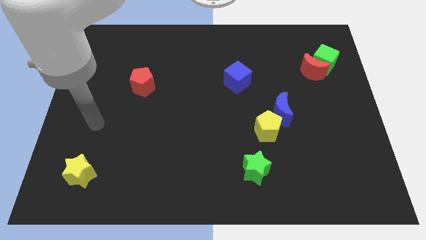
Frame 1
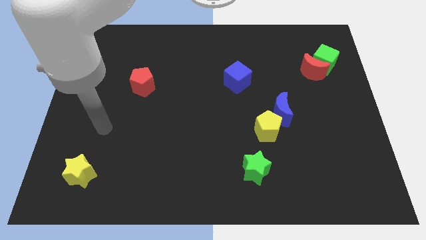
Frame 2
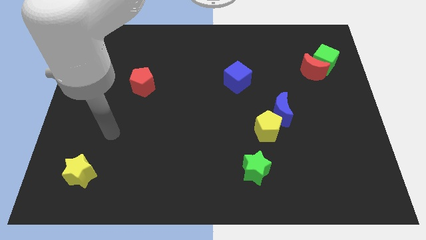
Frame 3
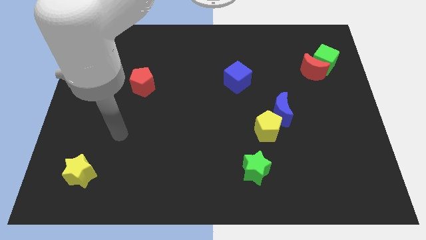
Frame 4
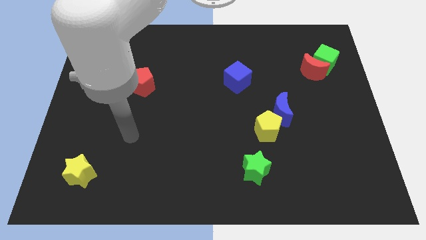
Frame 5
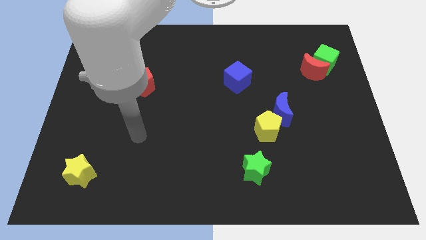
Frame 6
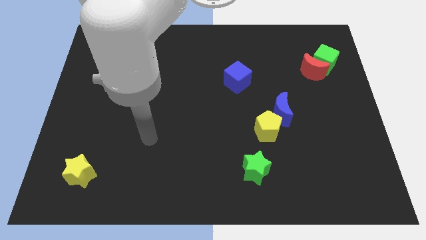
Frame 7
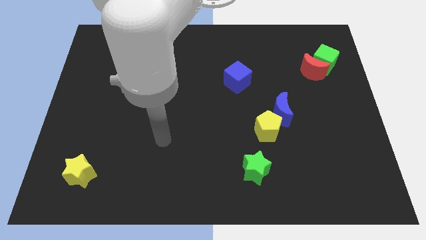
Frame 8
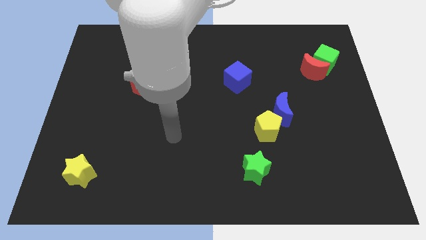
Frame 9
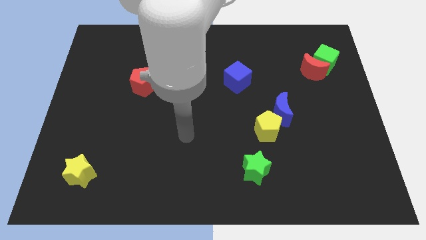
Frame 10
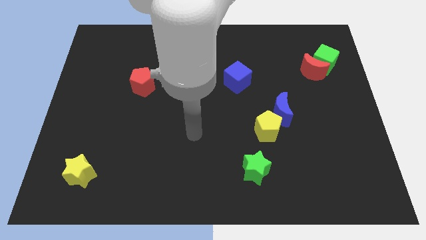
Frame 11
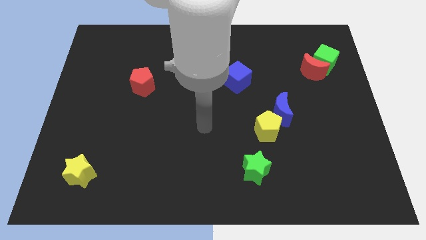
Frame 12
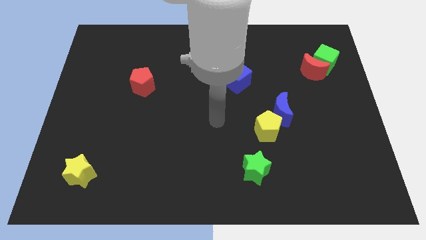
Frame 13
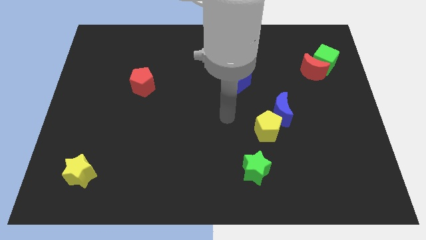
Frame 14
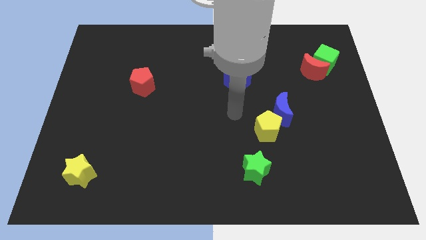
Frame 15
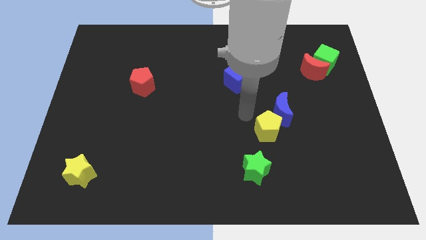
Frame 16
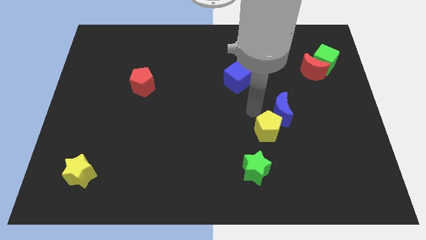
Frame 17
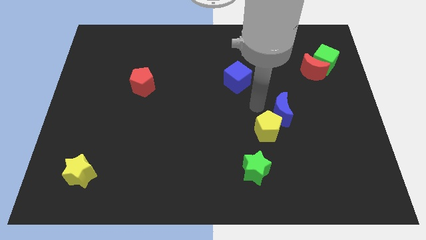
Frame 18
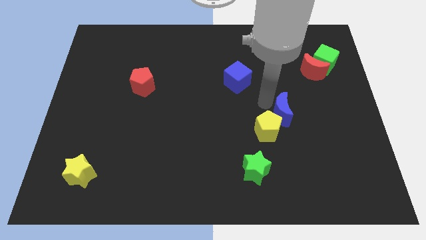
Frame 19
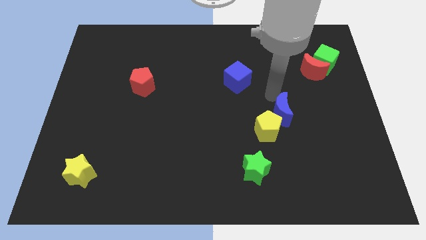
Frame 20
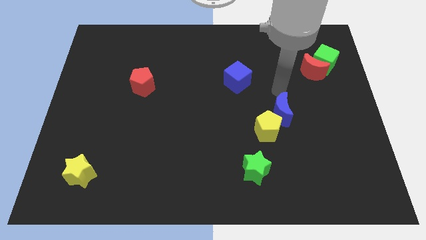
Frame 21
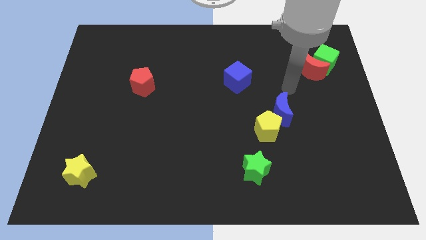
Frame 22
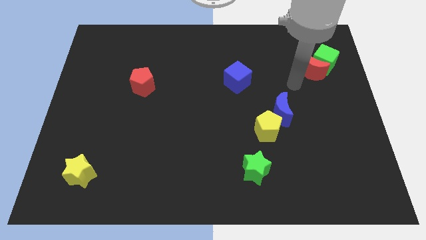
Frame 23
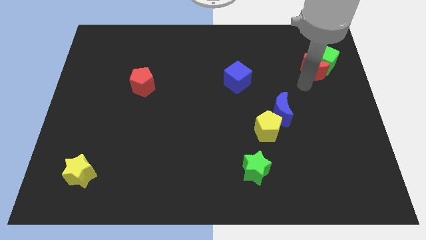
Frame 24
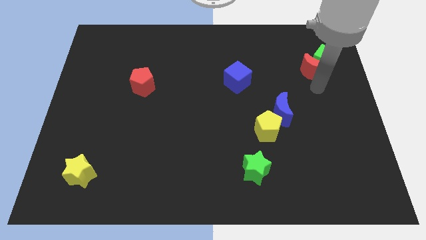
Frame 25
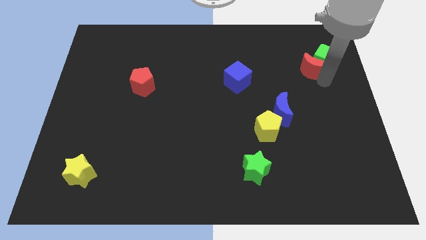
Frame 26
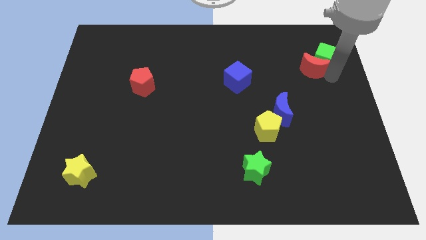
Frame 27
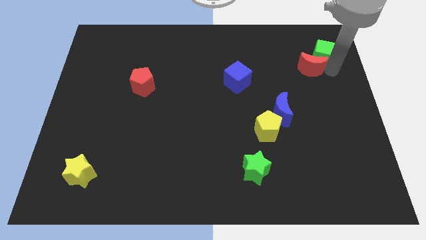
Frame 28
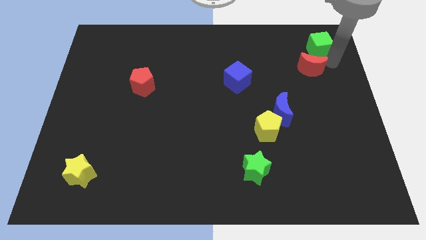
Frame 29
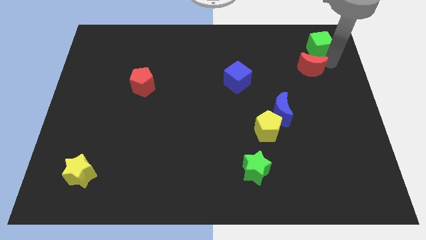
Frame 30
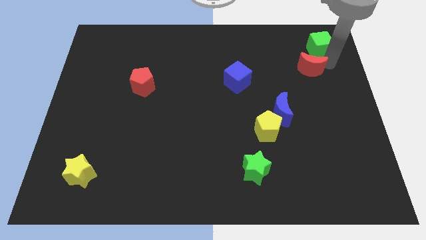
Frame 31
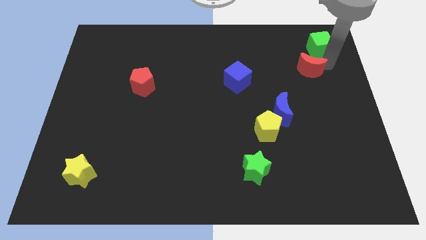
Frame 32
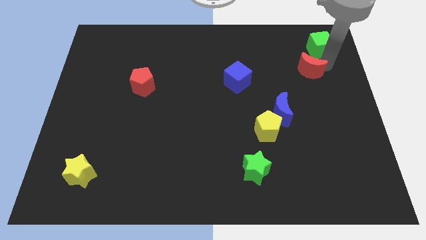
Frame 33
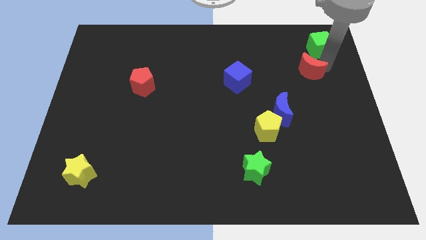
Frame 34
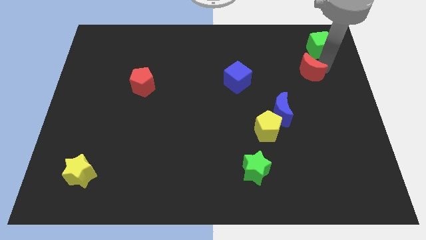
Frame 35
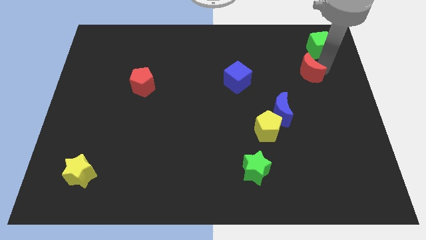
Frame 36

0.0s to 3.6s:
separate the red moon from the green cube

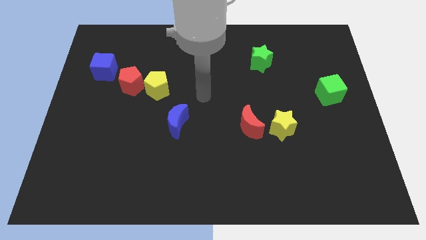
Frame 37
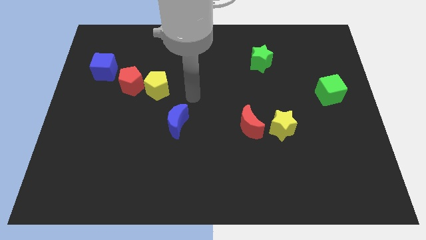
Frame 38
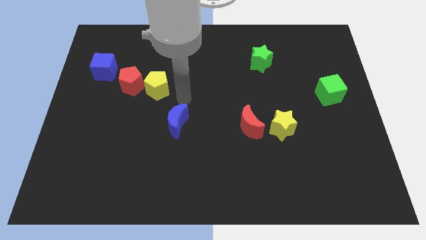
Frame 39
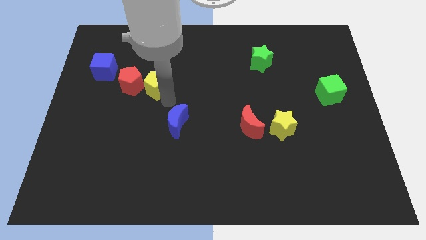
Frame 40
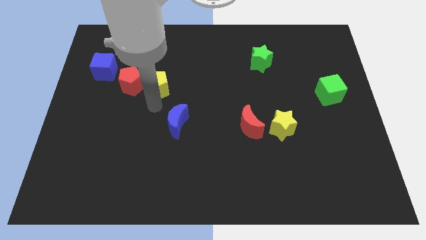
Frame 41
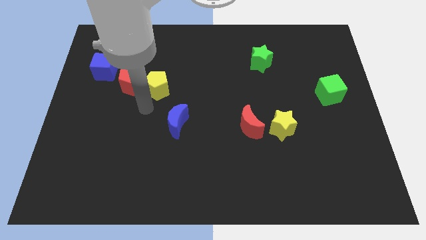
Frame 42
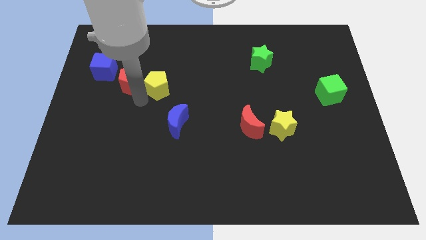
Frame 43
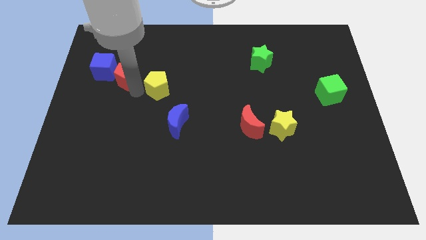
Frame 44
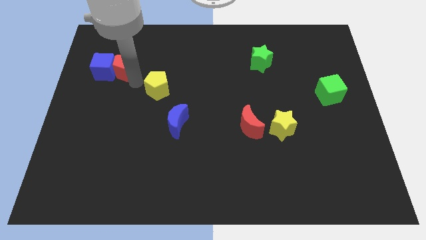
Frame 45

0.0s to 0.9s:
pull the yellow pentagon apart from the red pentagon

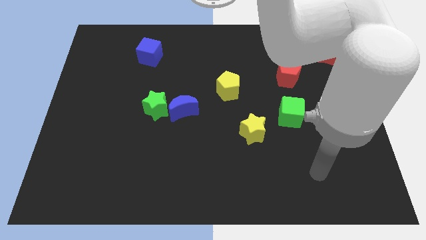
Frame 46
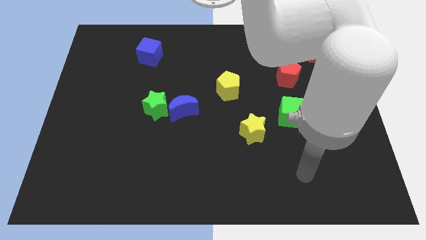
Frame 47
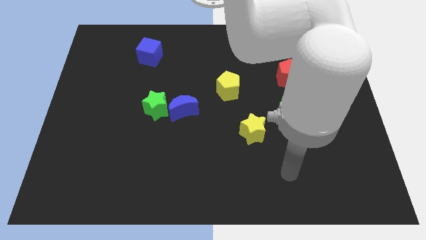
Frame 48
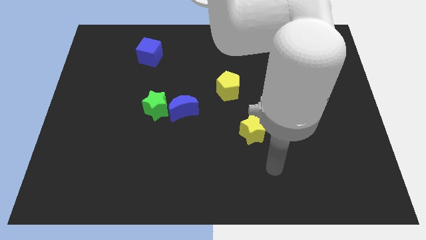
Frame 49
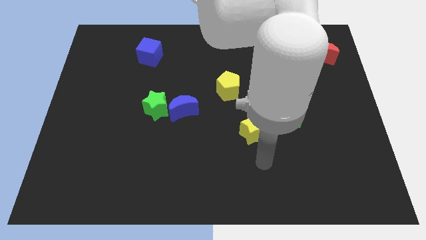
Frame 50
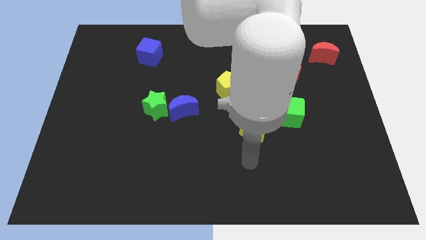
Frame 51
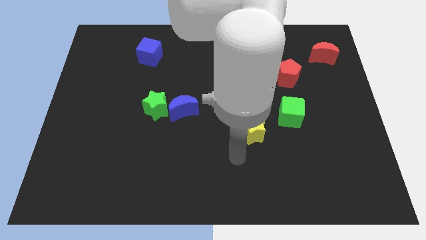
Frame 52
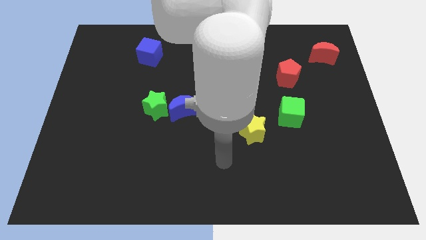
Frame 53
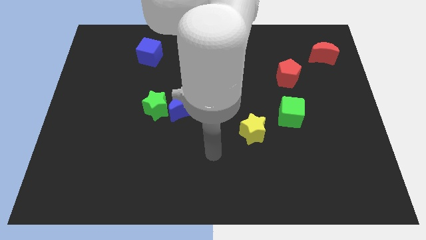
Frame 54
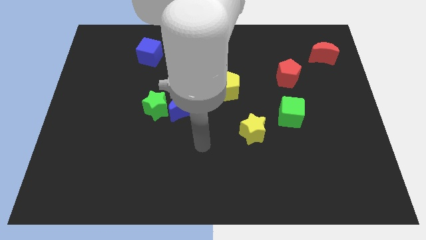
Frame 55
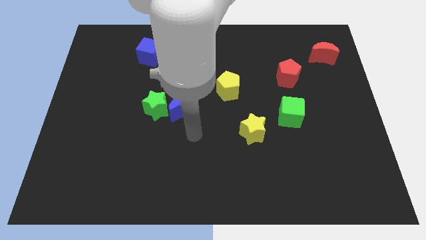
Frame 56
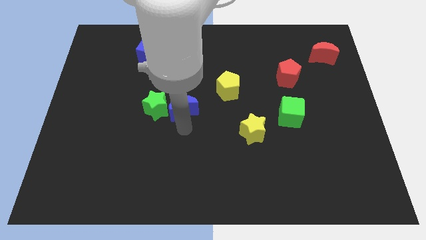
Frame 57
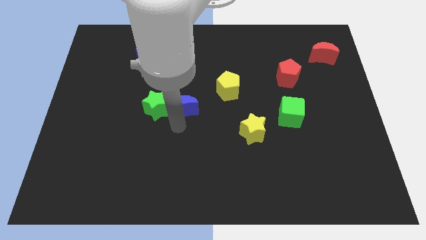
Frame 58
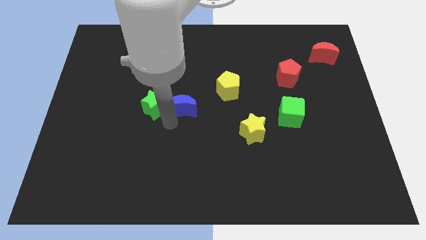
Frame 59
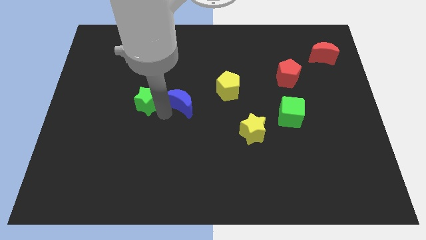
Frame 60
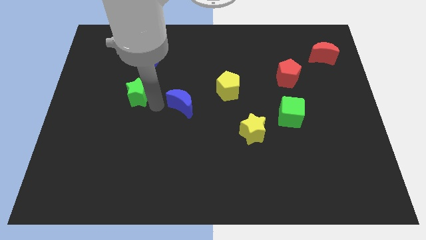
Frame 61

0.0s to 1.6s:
move the blue moon away from the green star

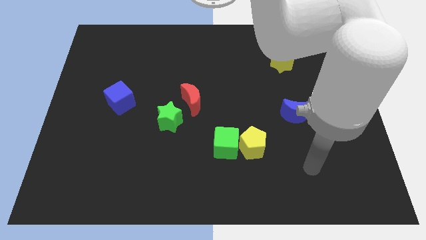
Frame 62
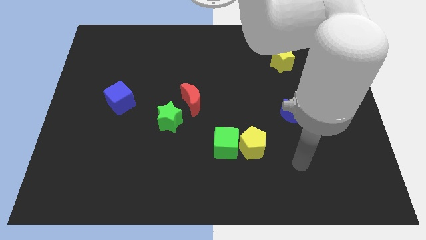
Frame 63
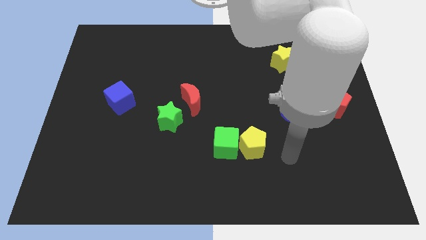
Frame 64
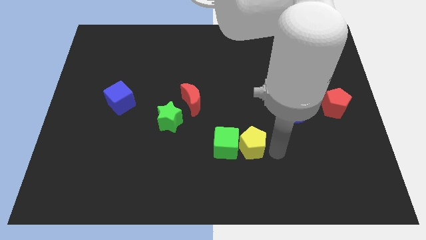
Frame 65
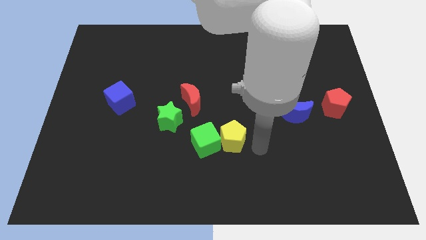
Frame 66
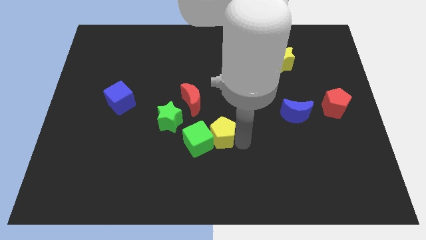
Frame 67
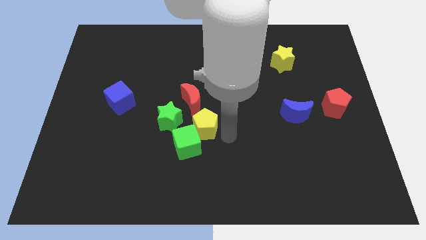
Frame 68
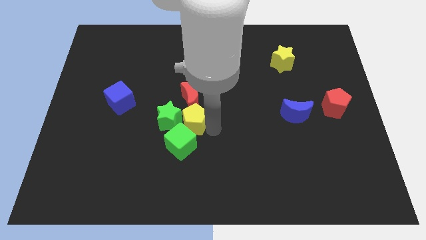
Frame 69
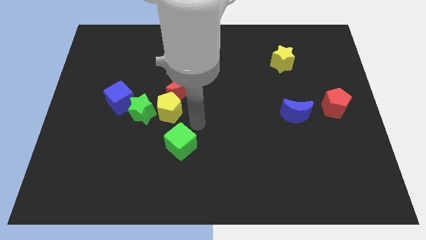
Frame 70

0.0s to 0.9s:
separate the green cube from the yellow pentagon

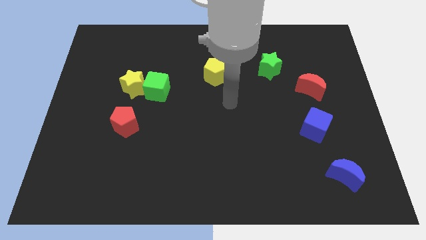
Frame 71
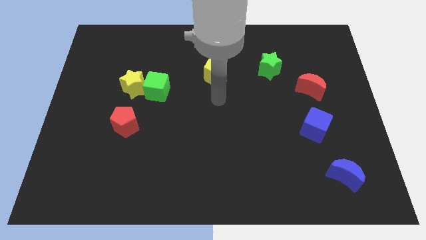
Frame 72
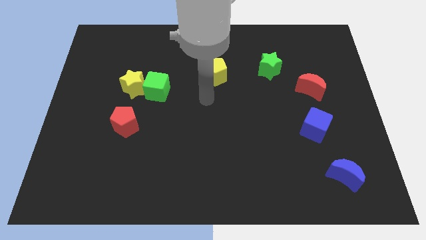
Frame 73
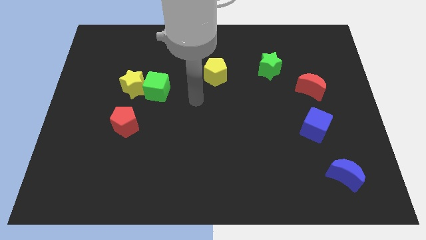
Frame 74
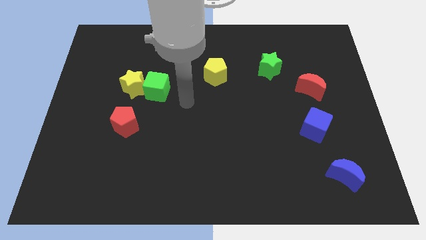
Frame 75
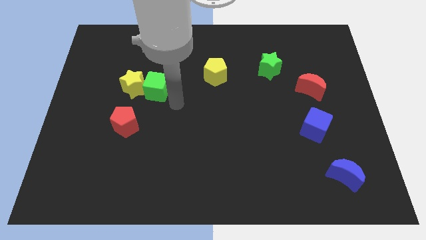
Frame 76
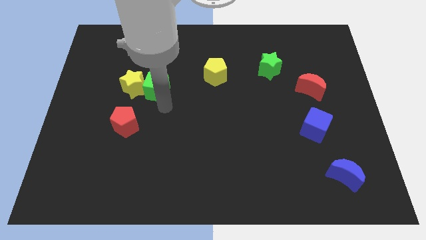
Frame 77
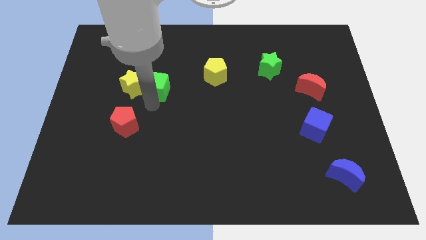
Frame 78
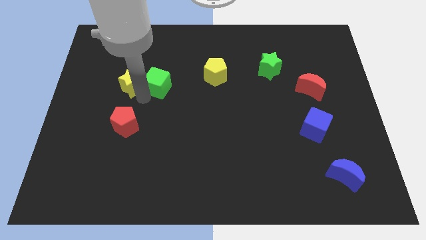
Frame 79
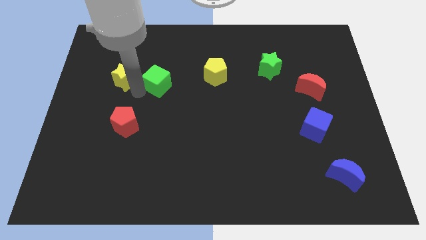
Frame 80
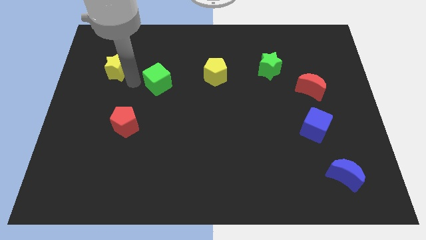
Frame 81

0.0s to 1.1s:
pull the green cube apart from the yellow star

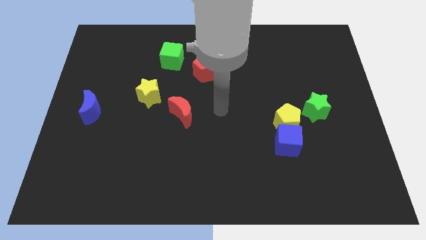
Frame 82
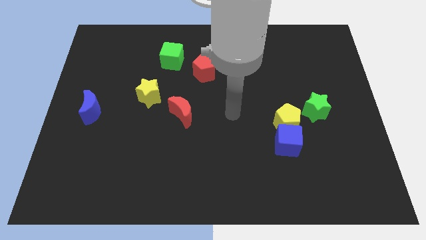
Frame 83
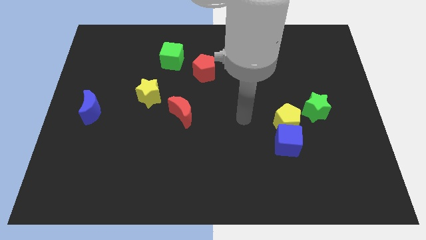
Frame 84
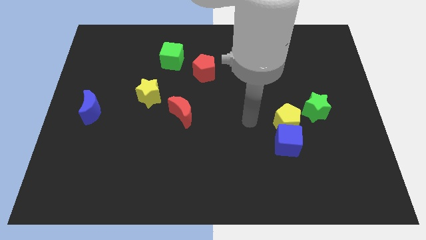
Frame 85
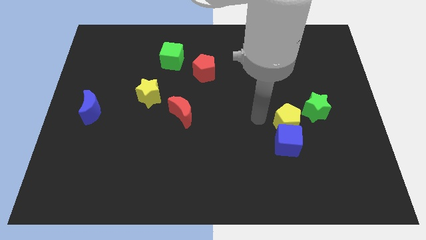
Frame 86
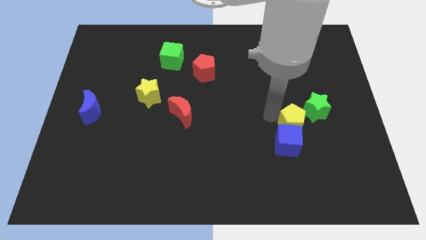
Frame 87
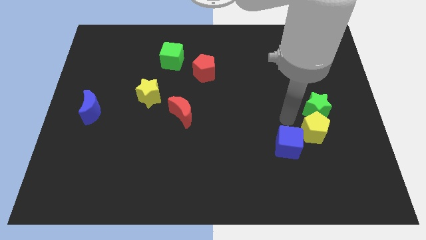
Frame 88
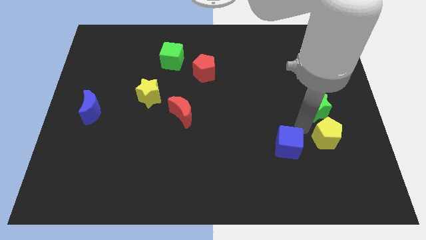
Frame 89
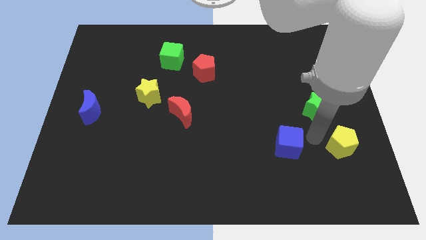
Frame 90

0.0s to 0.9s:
move the blue cube away from the yellow pentagon

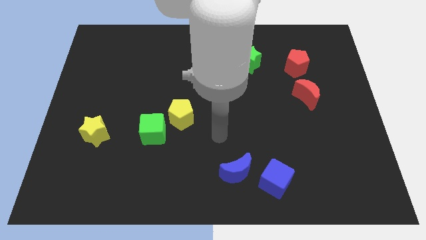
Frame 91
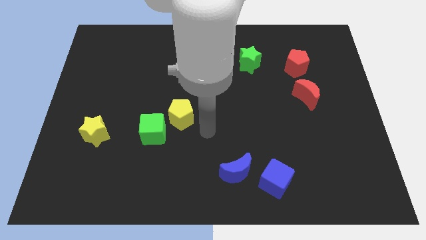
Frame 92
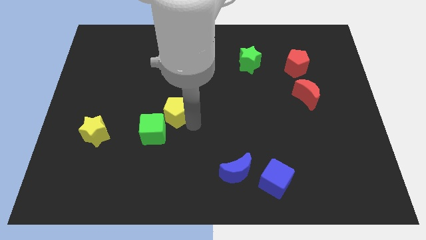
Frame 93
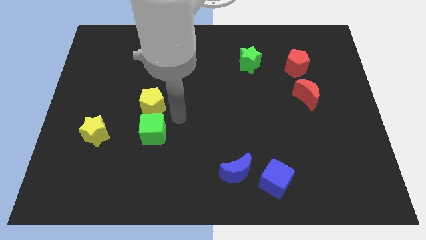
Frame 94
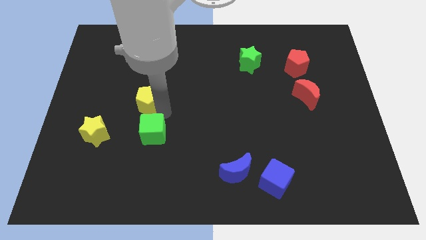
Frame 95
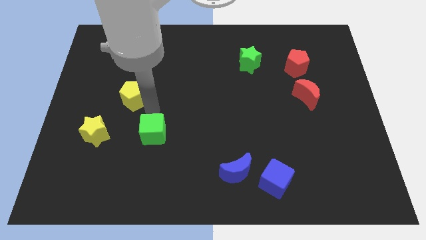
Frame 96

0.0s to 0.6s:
move the green cube away from the yellow pentagon
